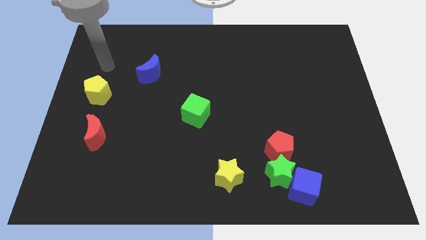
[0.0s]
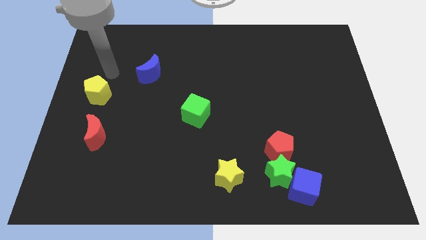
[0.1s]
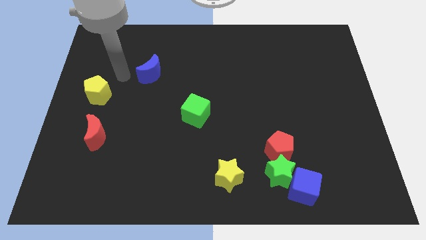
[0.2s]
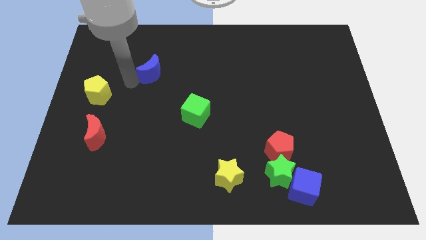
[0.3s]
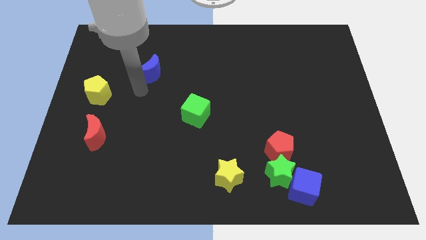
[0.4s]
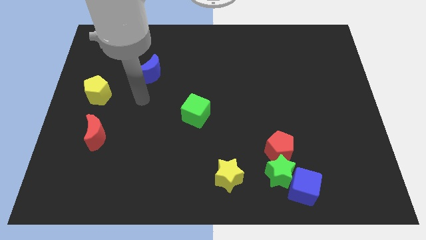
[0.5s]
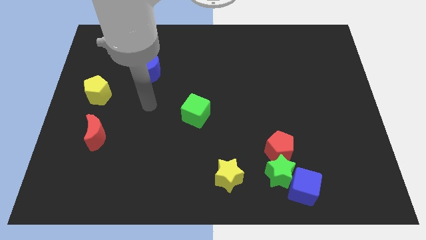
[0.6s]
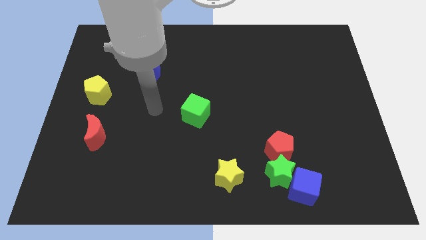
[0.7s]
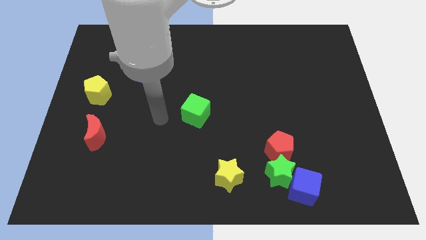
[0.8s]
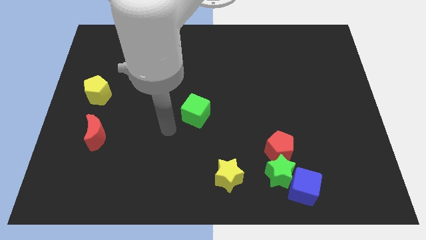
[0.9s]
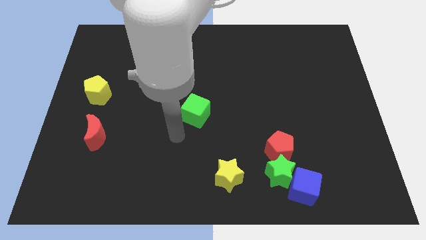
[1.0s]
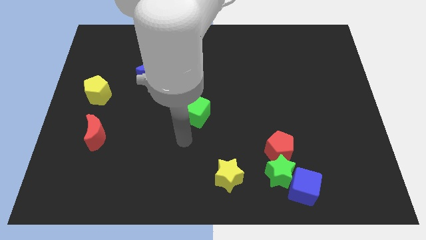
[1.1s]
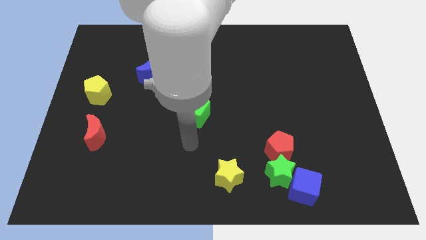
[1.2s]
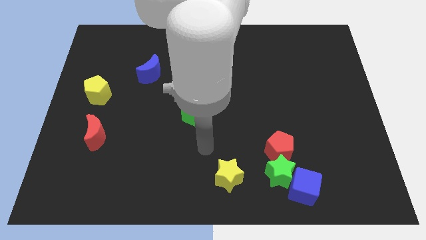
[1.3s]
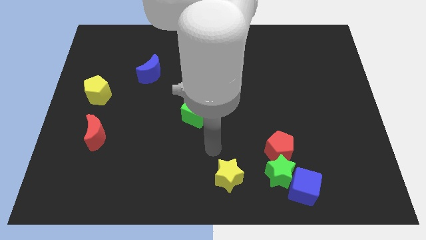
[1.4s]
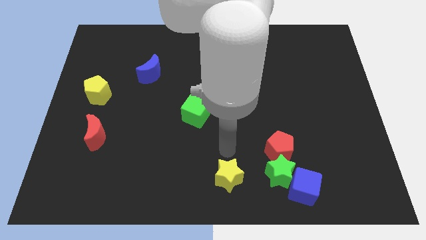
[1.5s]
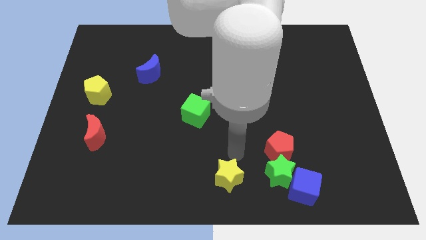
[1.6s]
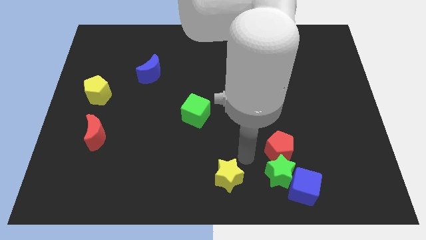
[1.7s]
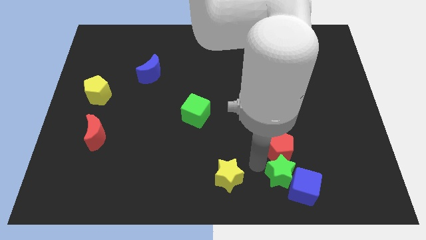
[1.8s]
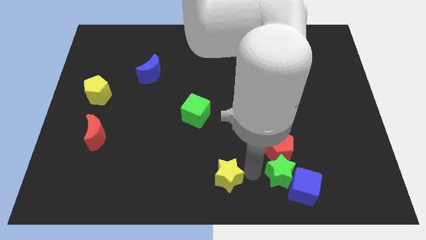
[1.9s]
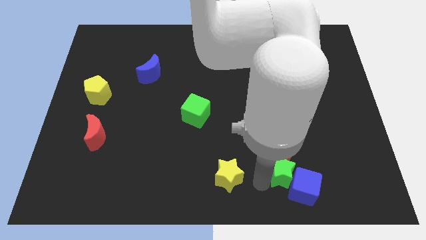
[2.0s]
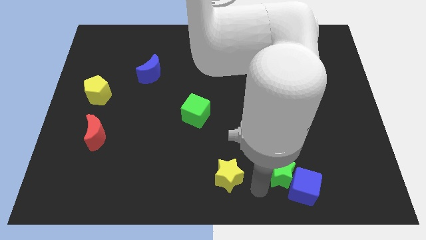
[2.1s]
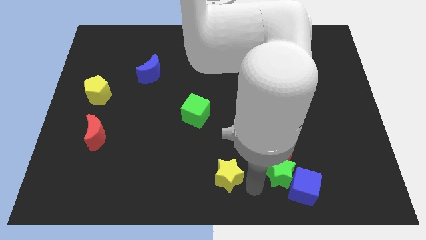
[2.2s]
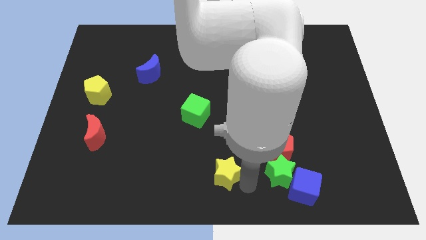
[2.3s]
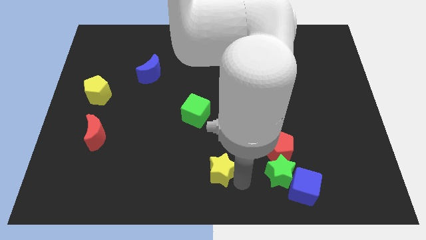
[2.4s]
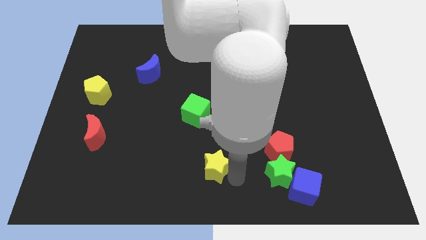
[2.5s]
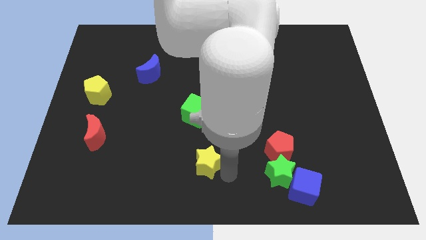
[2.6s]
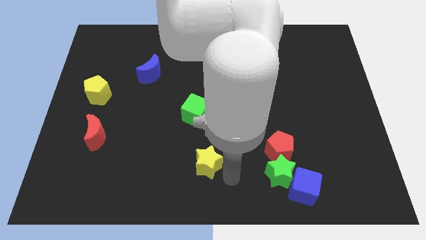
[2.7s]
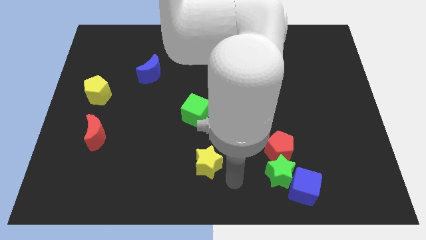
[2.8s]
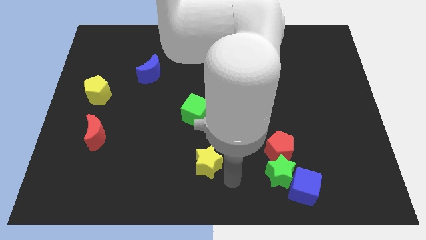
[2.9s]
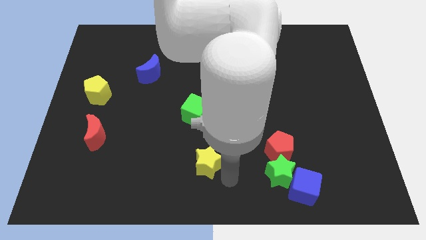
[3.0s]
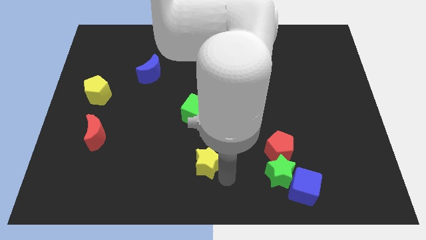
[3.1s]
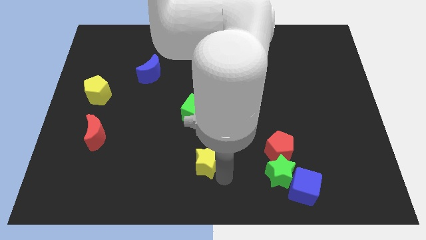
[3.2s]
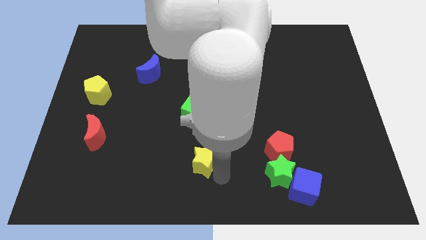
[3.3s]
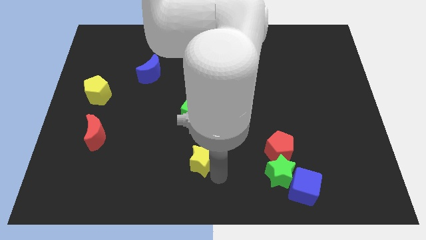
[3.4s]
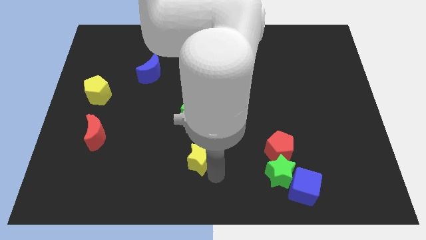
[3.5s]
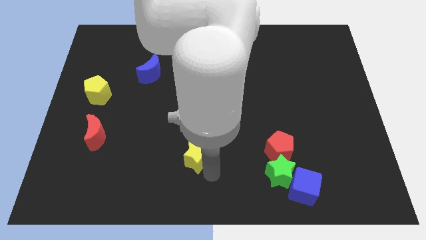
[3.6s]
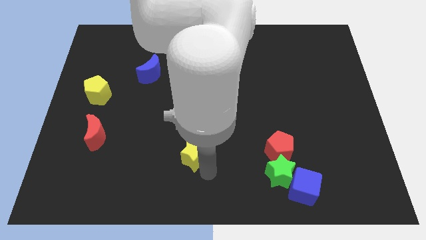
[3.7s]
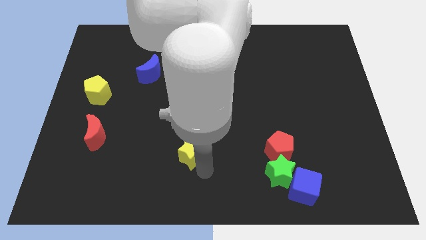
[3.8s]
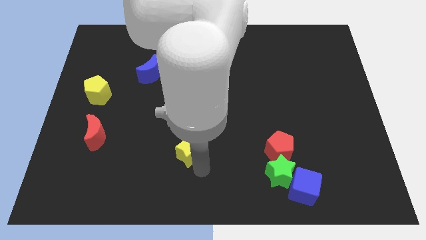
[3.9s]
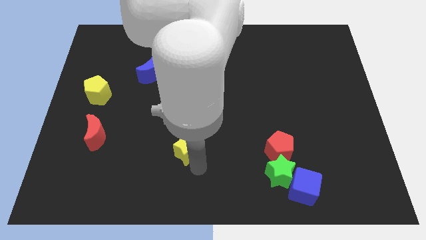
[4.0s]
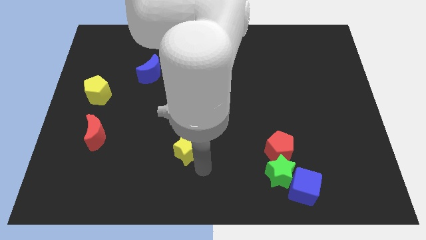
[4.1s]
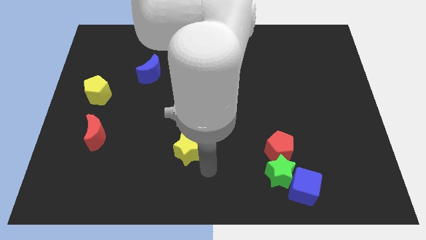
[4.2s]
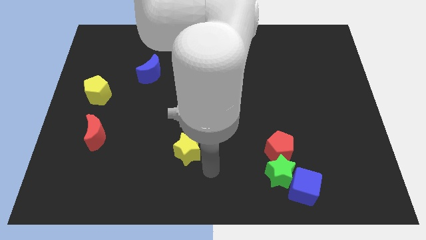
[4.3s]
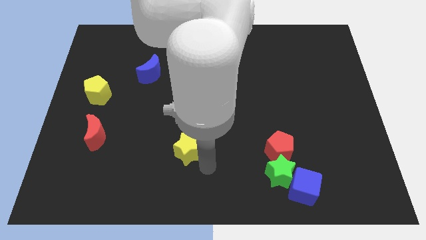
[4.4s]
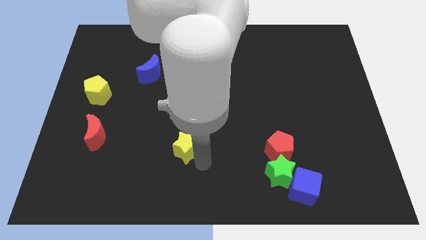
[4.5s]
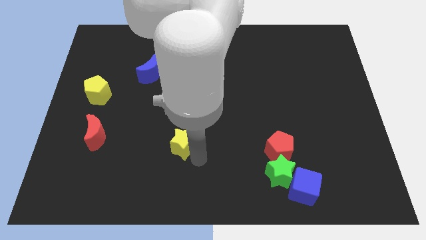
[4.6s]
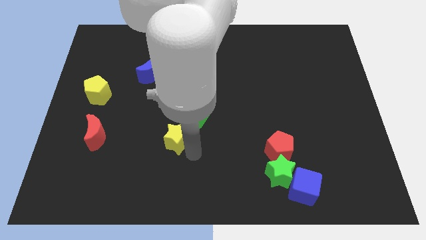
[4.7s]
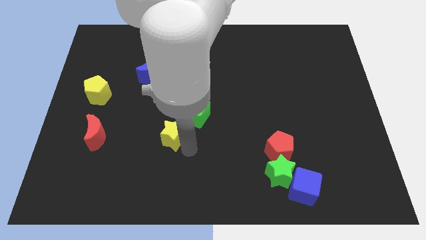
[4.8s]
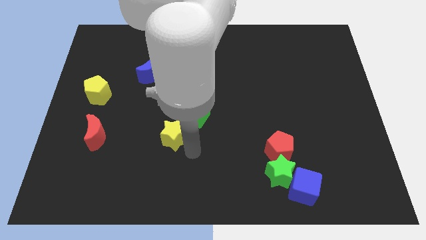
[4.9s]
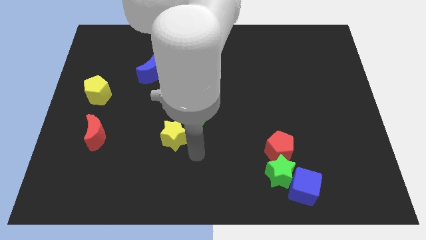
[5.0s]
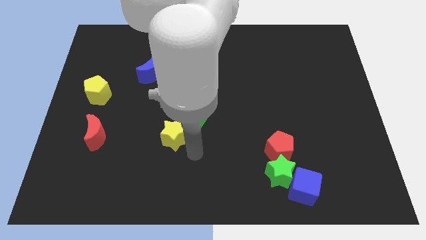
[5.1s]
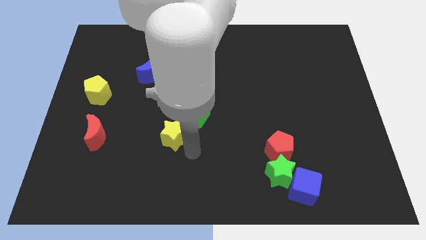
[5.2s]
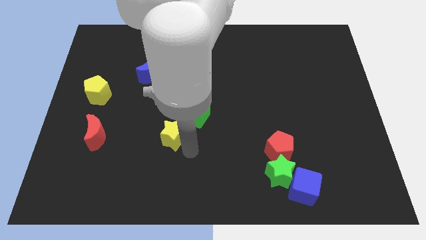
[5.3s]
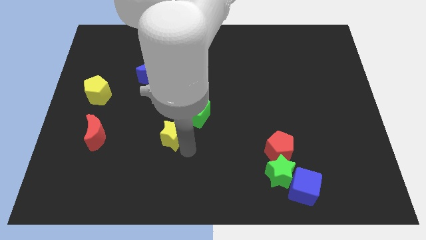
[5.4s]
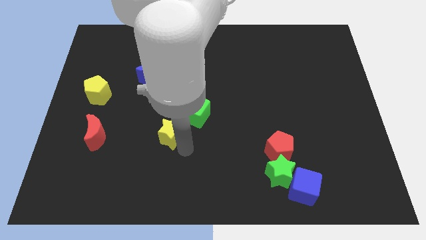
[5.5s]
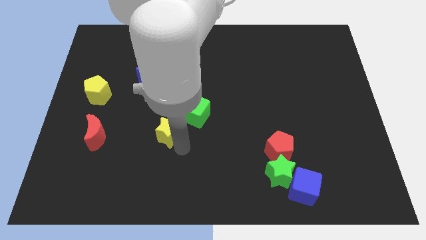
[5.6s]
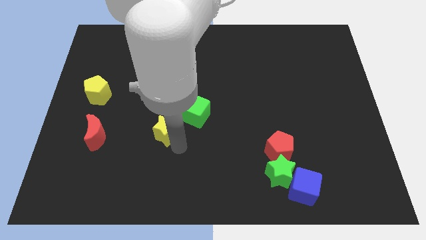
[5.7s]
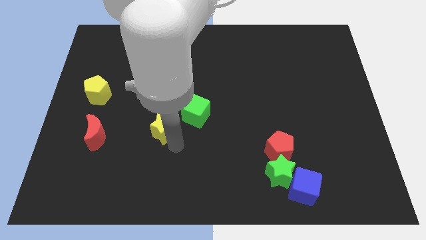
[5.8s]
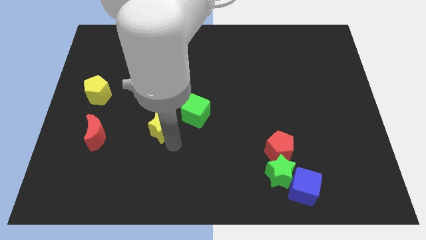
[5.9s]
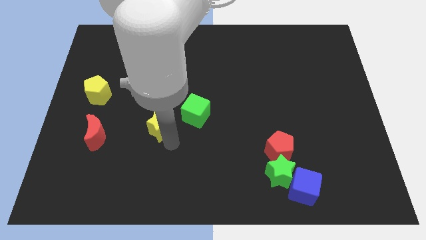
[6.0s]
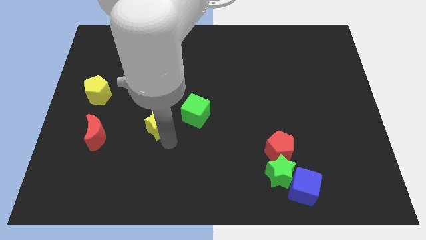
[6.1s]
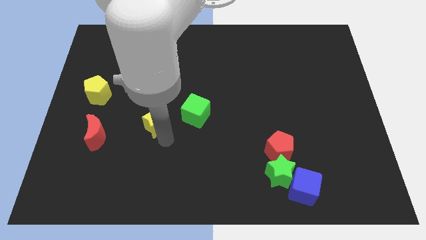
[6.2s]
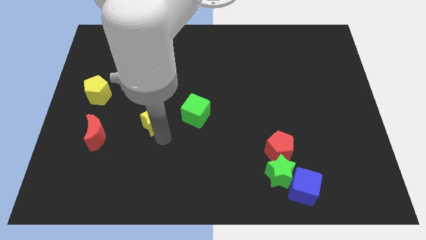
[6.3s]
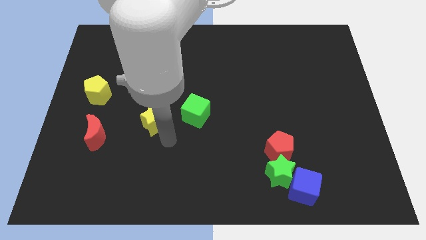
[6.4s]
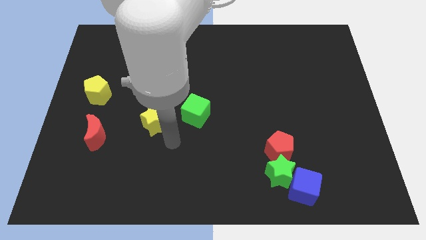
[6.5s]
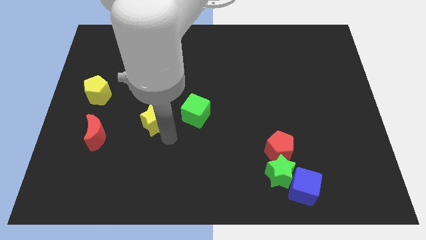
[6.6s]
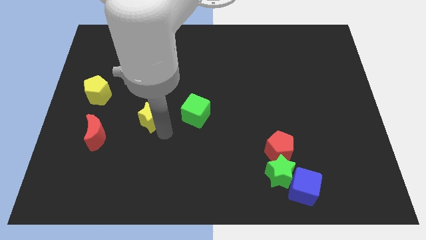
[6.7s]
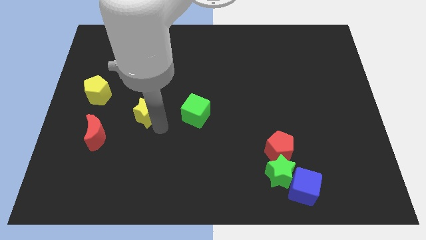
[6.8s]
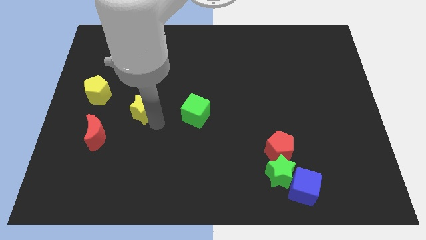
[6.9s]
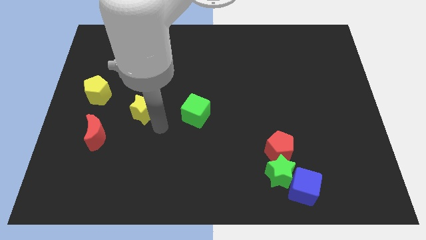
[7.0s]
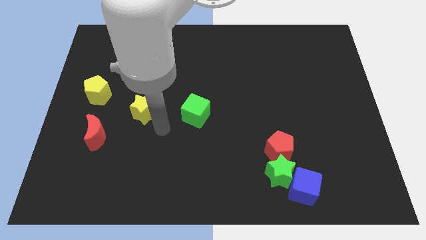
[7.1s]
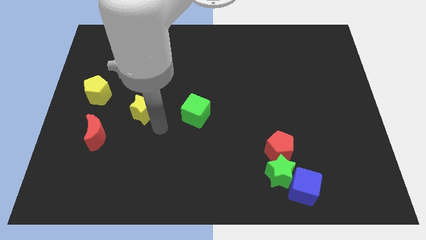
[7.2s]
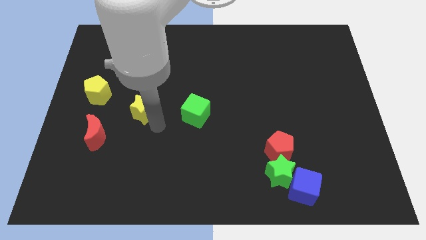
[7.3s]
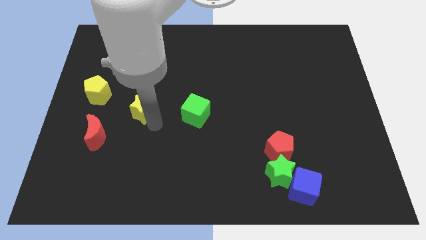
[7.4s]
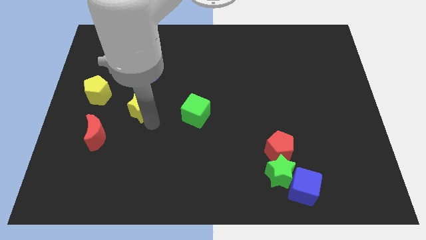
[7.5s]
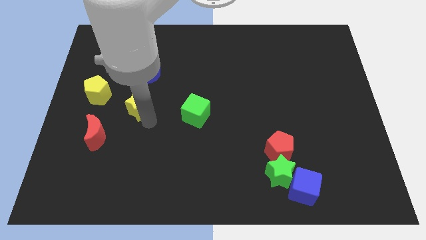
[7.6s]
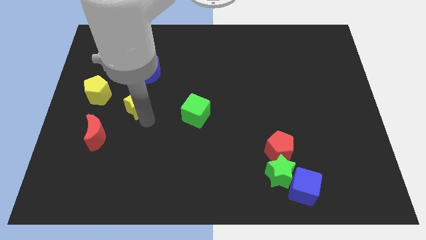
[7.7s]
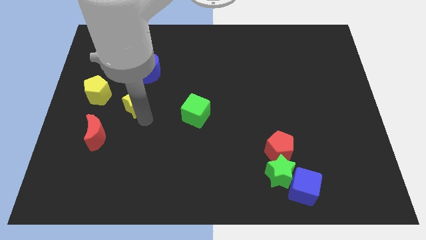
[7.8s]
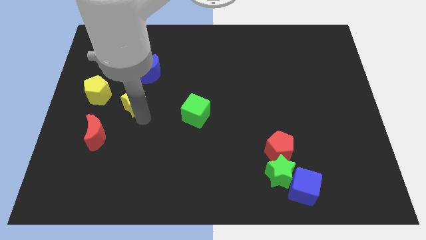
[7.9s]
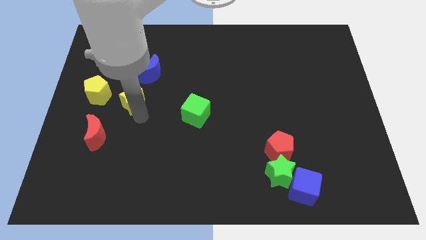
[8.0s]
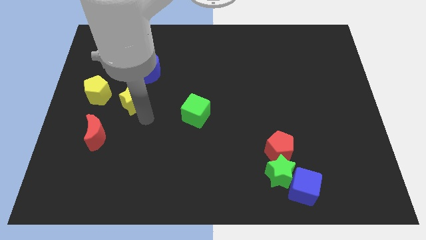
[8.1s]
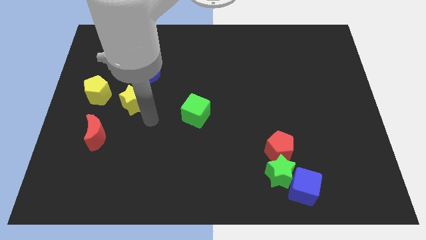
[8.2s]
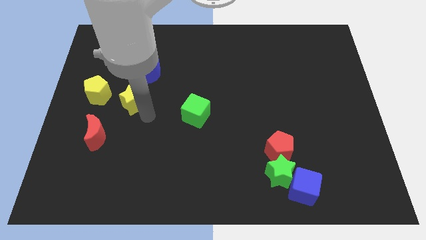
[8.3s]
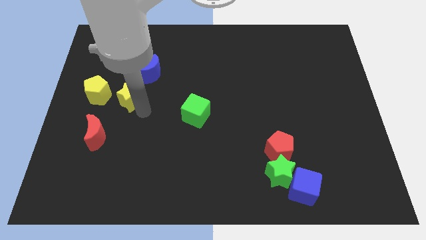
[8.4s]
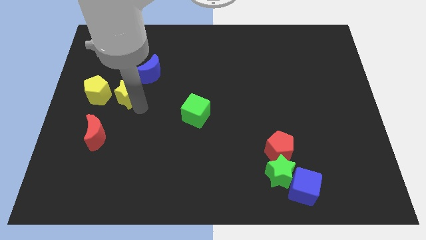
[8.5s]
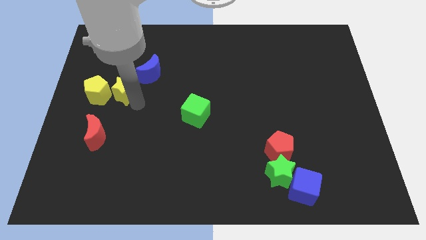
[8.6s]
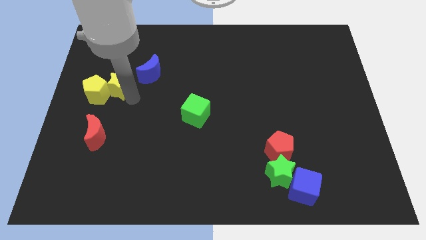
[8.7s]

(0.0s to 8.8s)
push the yellow star just left of the blue moon
